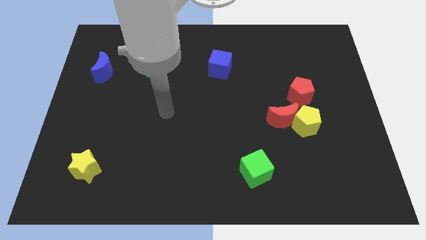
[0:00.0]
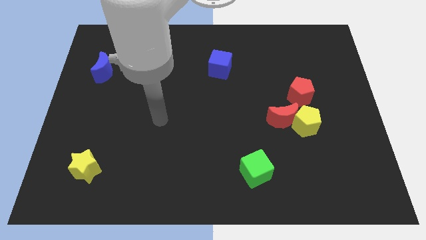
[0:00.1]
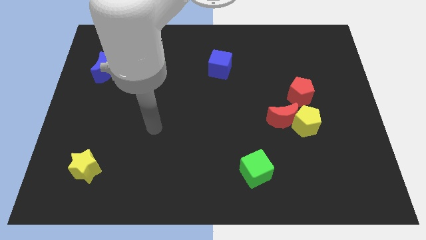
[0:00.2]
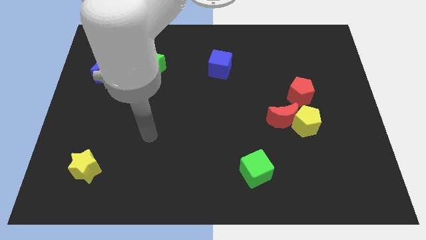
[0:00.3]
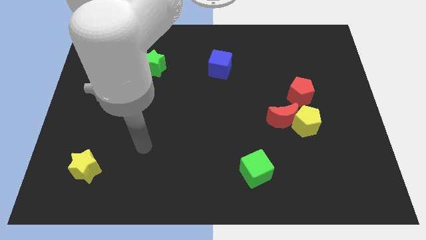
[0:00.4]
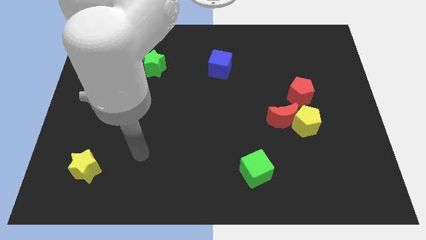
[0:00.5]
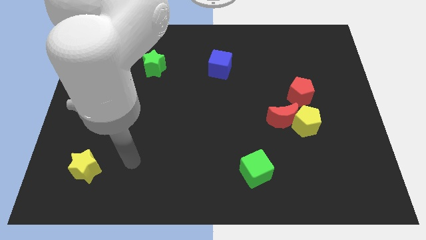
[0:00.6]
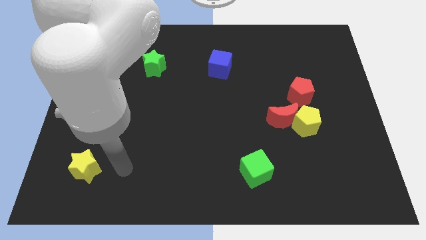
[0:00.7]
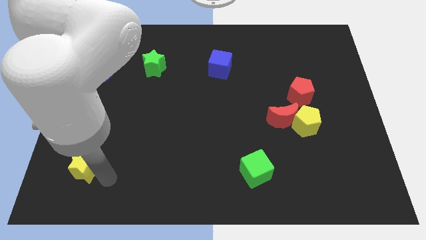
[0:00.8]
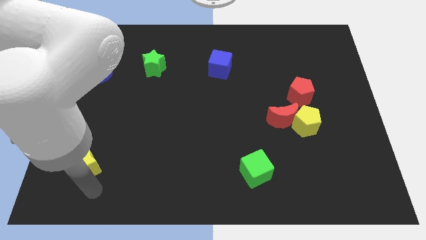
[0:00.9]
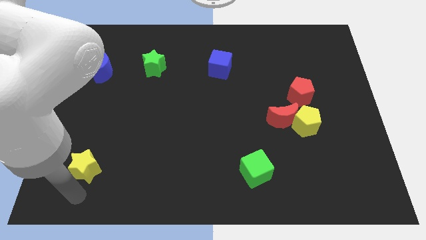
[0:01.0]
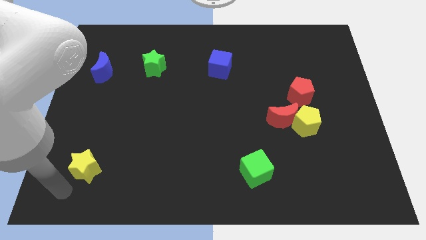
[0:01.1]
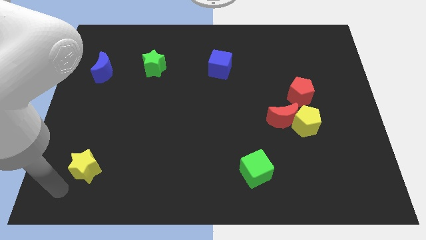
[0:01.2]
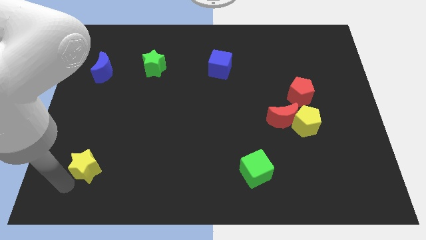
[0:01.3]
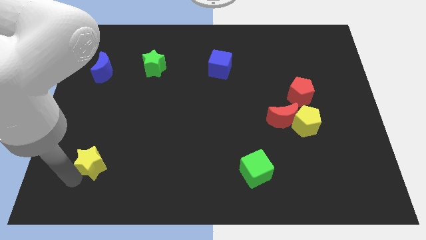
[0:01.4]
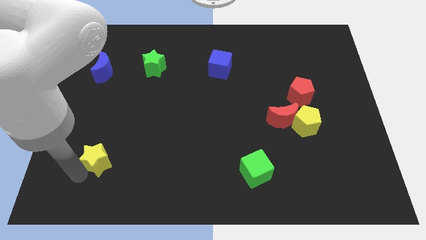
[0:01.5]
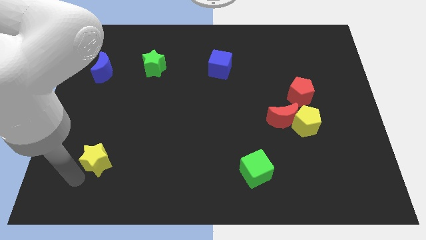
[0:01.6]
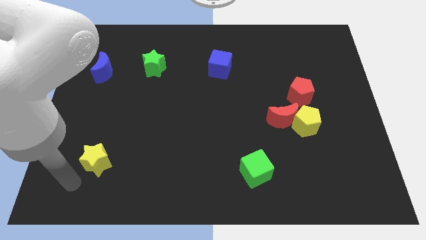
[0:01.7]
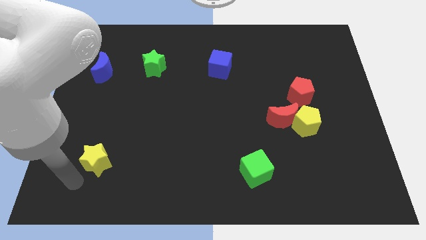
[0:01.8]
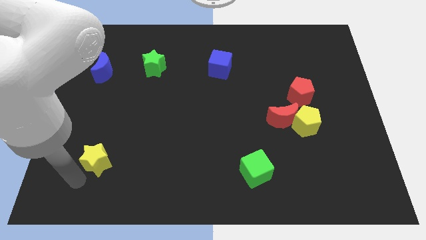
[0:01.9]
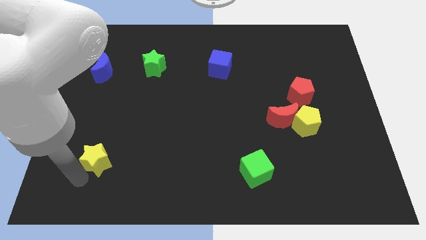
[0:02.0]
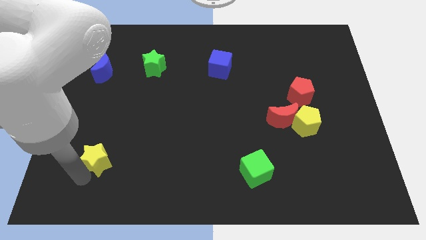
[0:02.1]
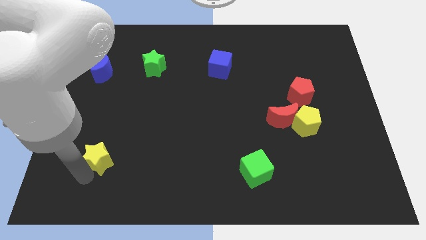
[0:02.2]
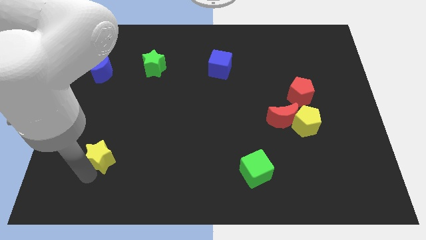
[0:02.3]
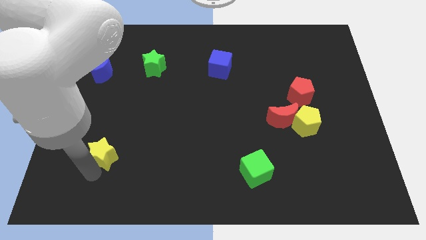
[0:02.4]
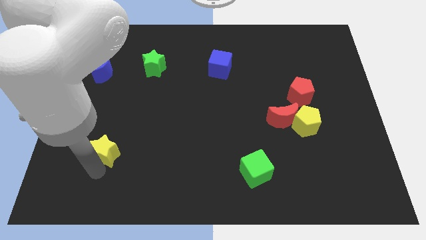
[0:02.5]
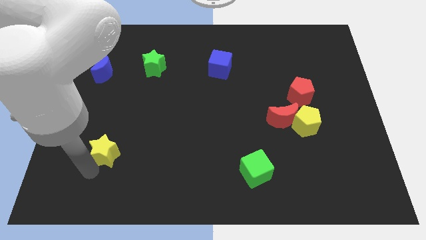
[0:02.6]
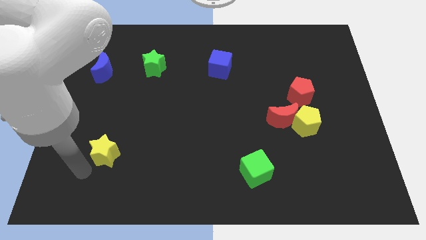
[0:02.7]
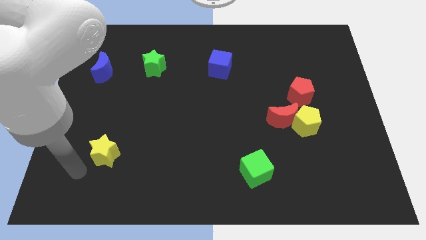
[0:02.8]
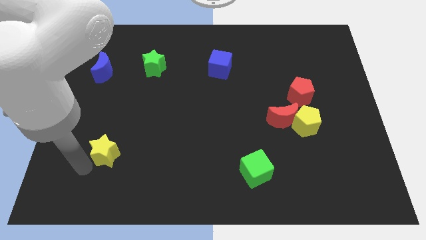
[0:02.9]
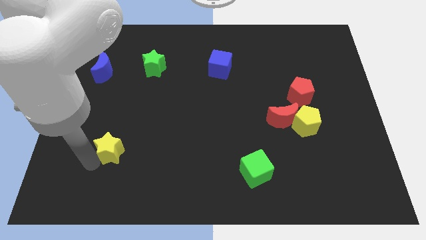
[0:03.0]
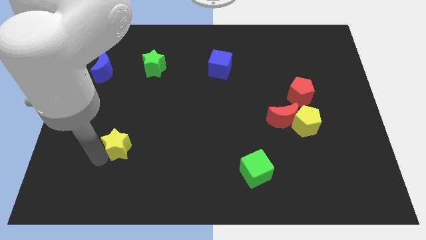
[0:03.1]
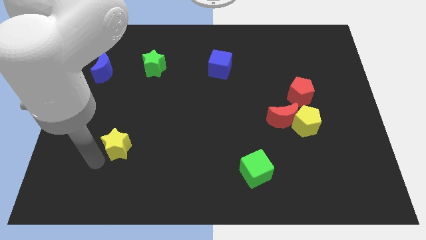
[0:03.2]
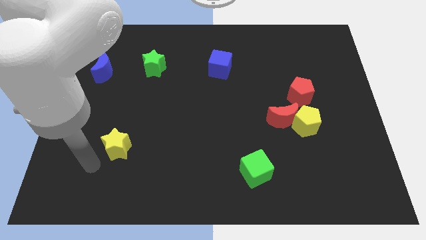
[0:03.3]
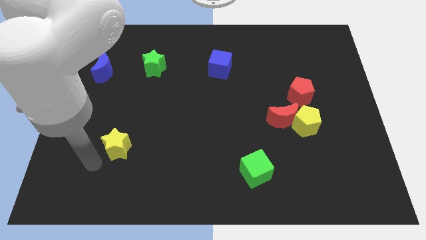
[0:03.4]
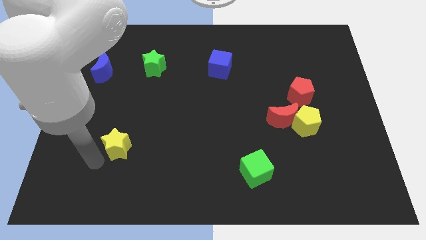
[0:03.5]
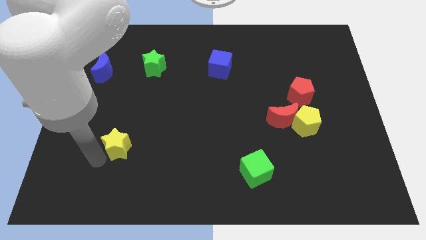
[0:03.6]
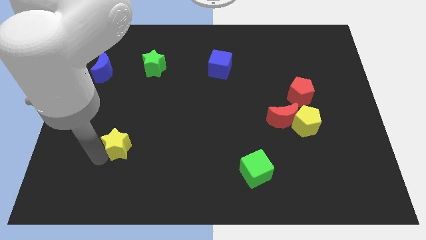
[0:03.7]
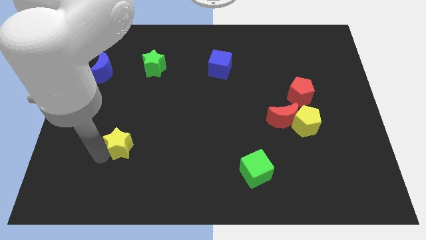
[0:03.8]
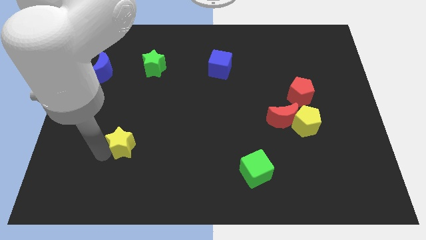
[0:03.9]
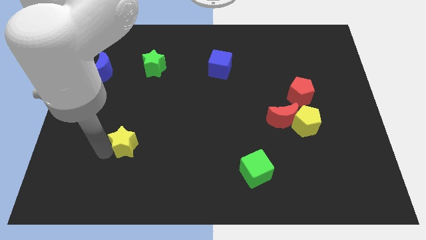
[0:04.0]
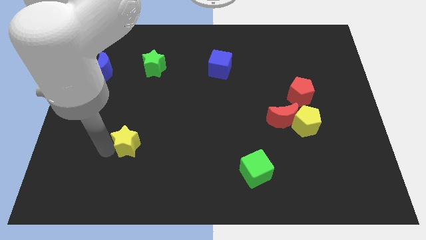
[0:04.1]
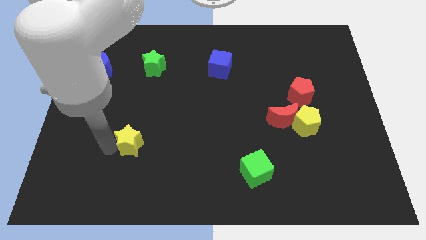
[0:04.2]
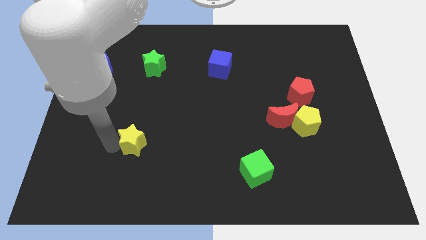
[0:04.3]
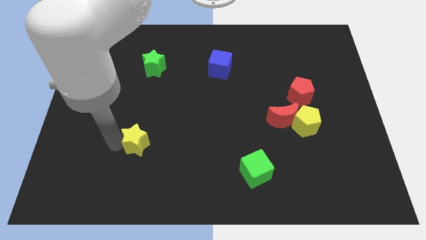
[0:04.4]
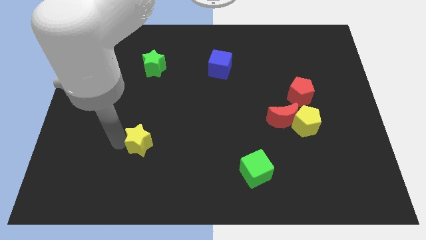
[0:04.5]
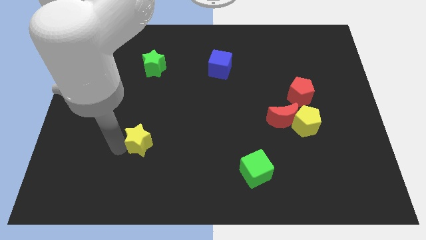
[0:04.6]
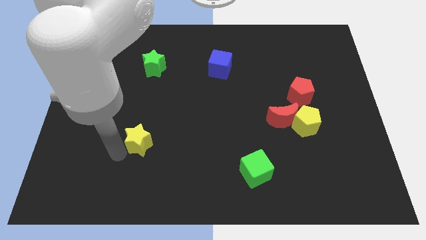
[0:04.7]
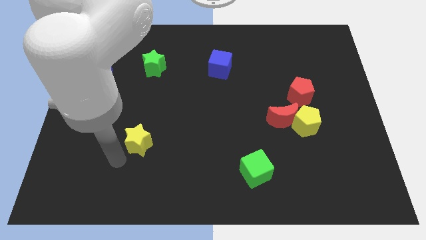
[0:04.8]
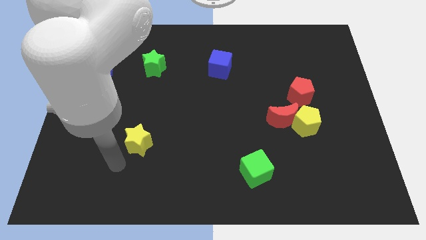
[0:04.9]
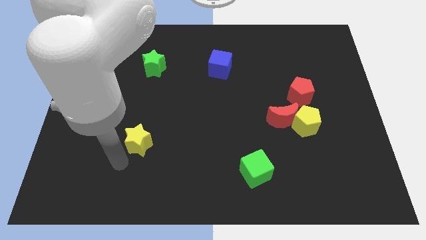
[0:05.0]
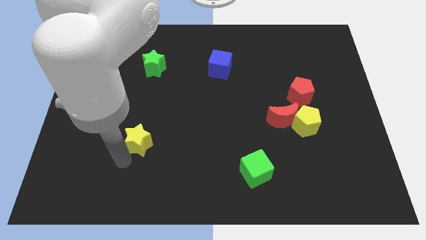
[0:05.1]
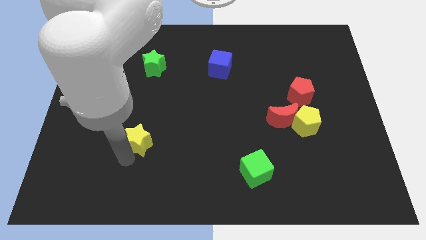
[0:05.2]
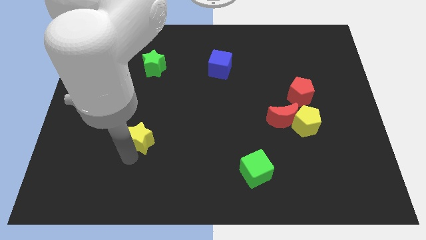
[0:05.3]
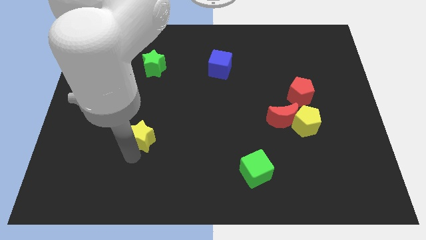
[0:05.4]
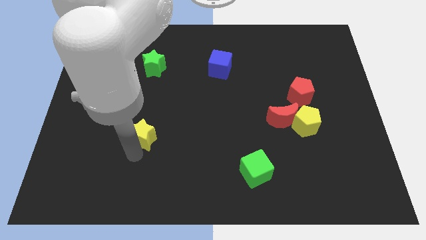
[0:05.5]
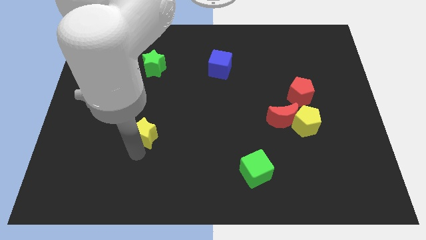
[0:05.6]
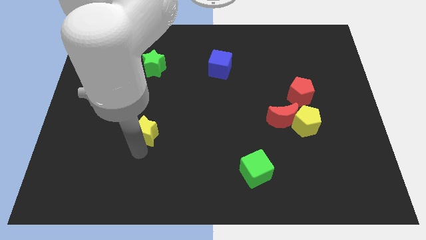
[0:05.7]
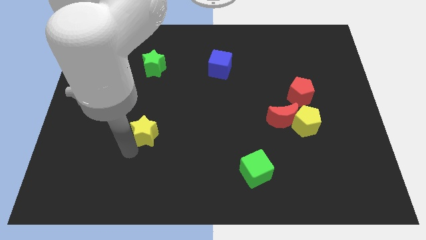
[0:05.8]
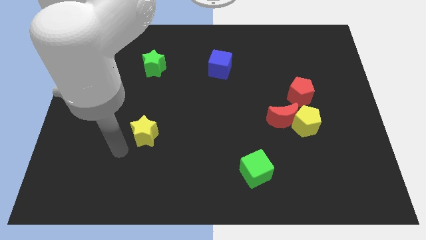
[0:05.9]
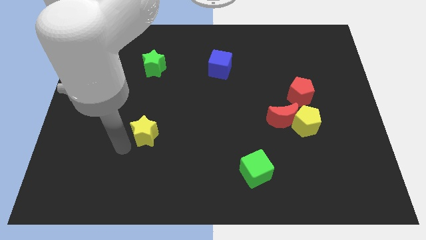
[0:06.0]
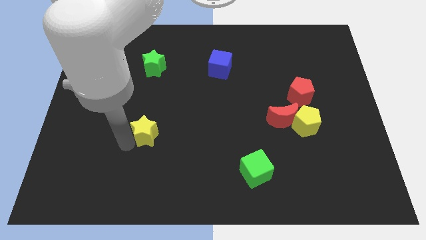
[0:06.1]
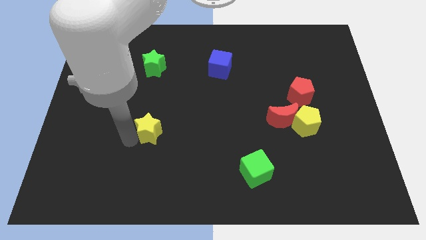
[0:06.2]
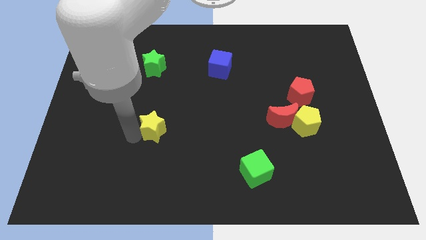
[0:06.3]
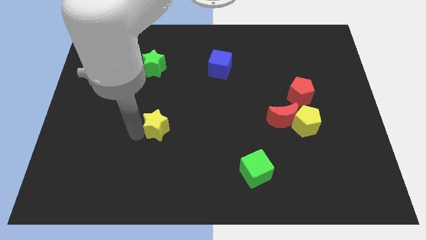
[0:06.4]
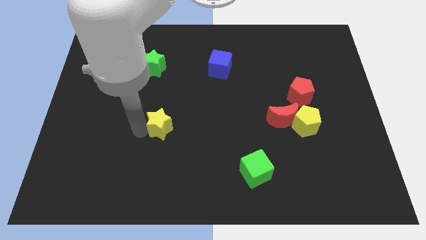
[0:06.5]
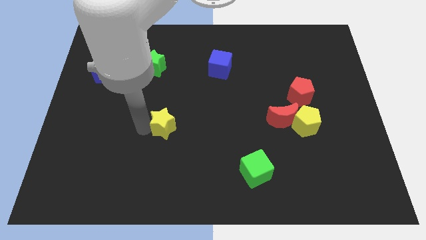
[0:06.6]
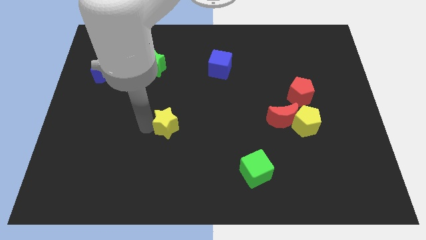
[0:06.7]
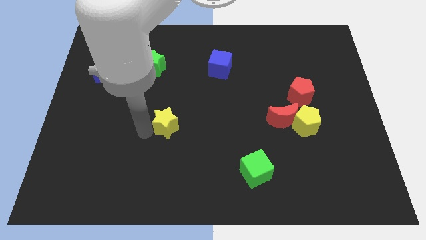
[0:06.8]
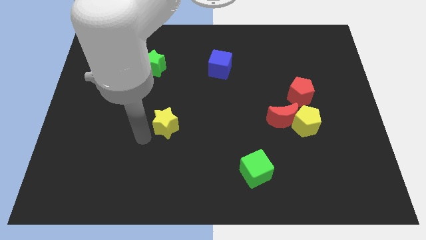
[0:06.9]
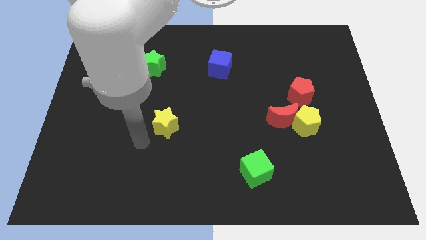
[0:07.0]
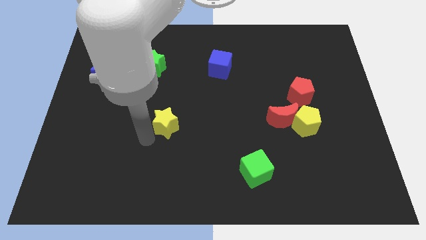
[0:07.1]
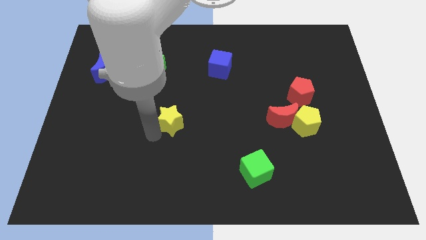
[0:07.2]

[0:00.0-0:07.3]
move the yellow star to the middle of the board
